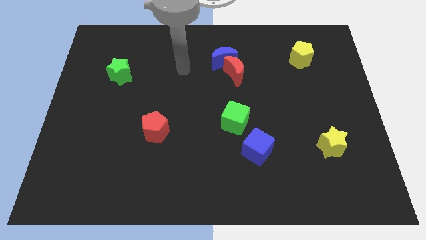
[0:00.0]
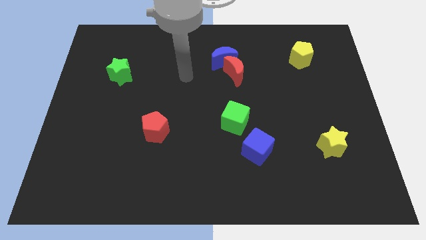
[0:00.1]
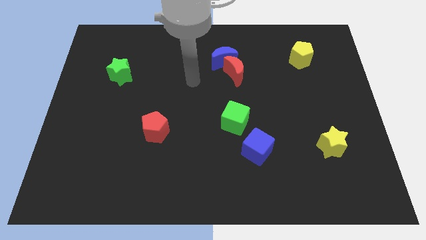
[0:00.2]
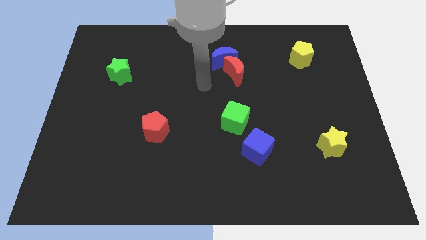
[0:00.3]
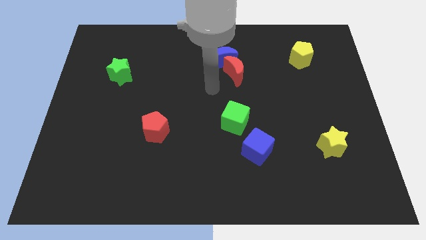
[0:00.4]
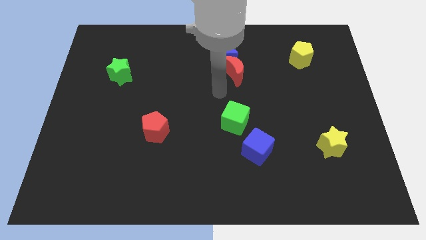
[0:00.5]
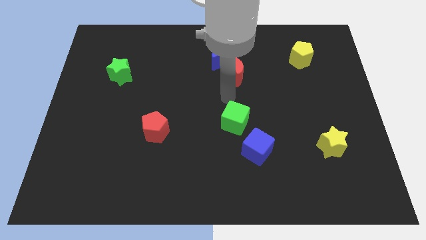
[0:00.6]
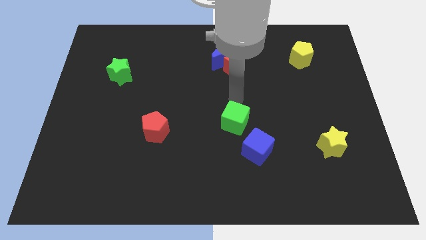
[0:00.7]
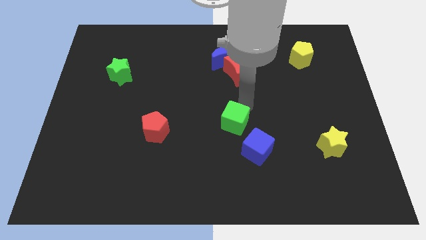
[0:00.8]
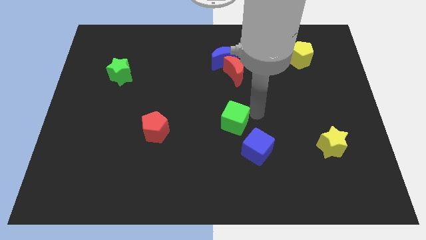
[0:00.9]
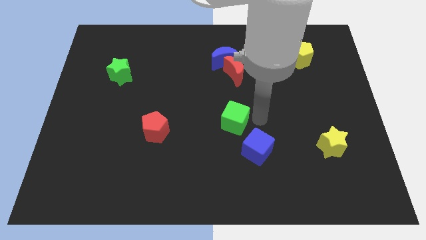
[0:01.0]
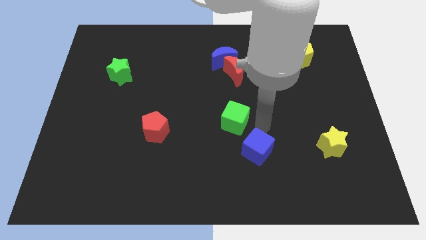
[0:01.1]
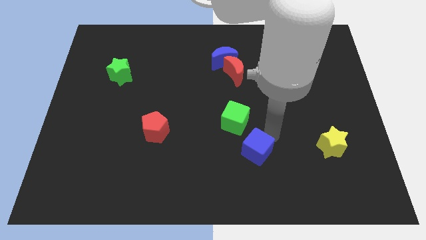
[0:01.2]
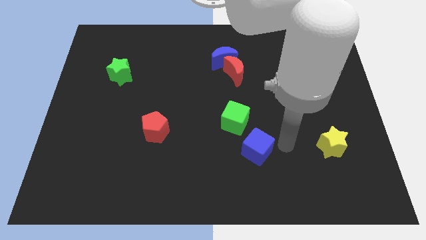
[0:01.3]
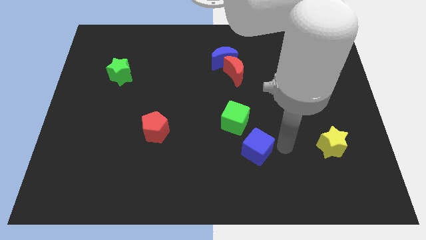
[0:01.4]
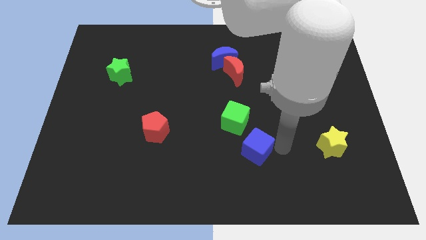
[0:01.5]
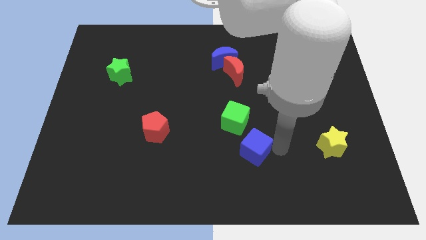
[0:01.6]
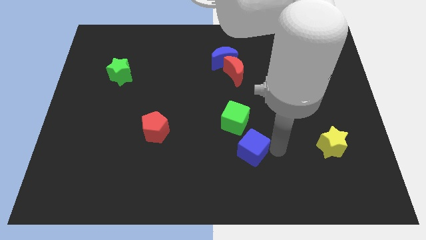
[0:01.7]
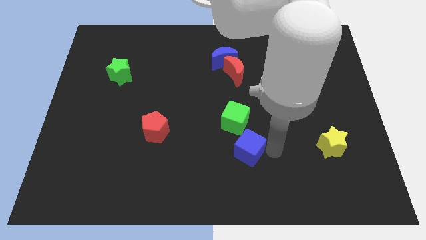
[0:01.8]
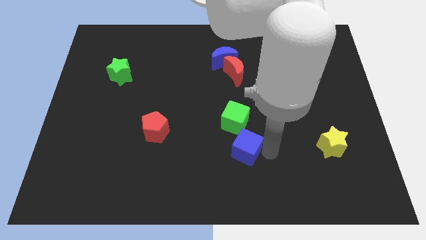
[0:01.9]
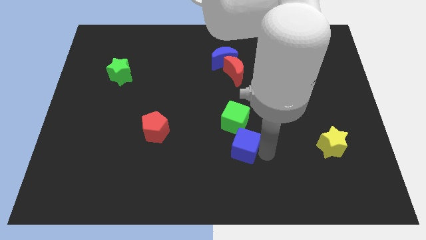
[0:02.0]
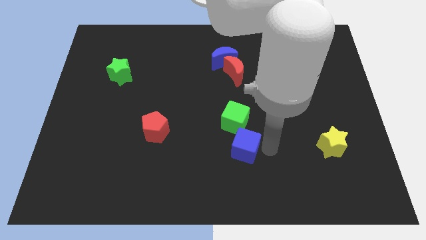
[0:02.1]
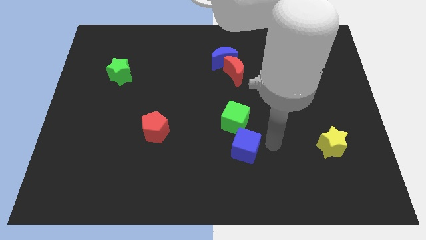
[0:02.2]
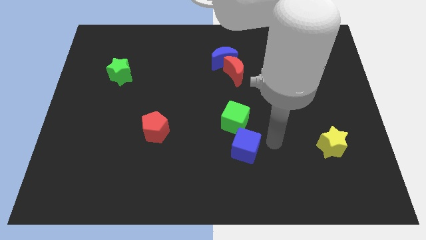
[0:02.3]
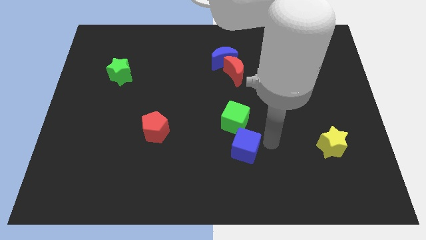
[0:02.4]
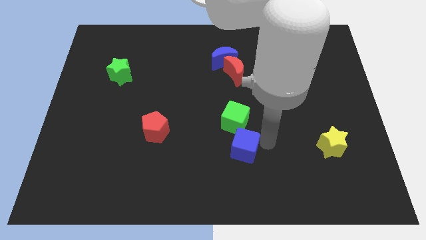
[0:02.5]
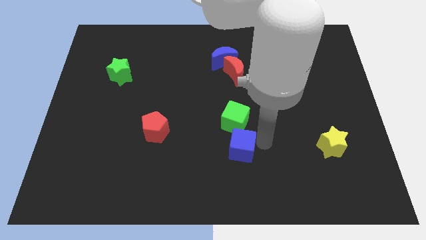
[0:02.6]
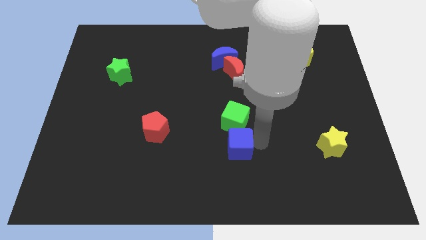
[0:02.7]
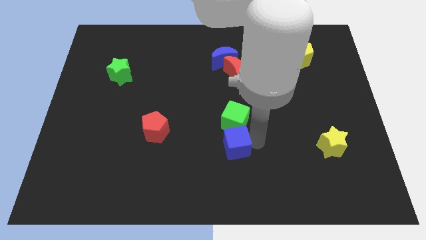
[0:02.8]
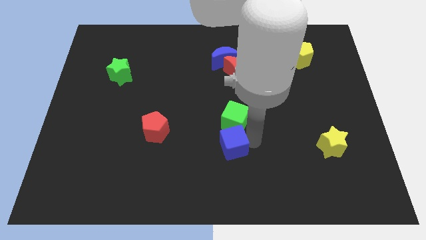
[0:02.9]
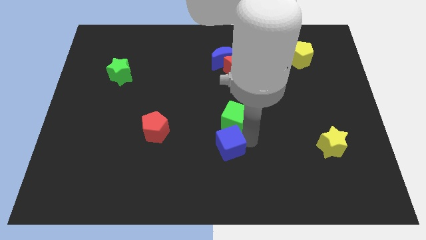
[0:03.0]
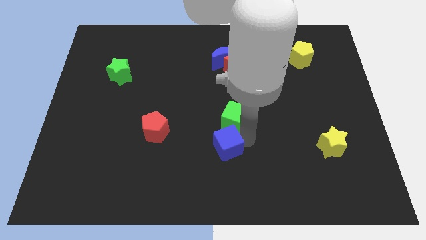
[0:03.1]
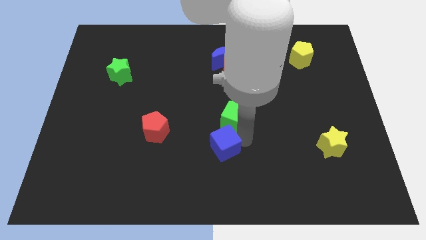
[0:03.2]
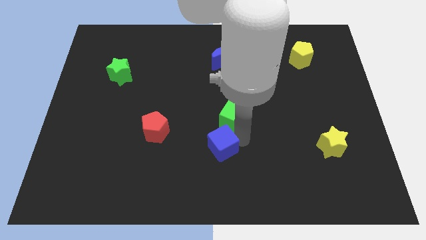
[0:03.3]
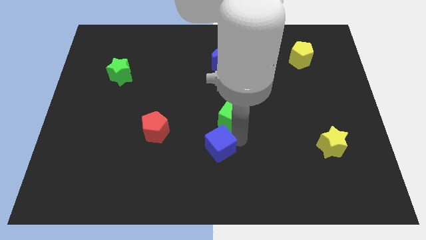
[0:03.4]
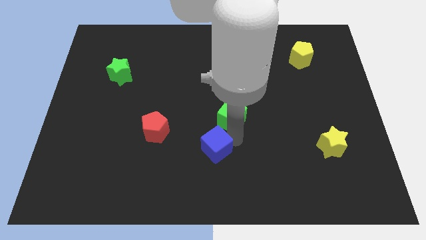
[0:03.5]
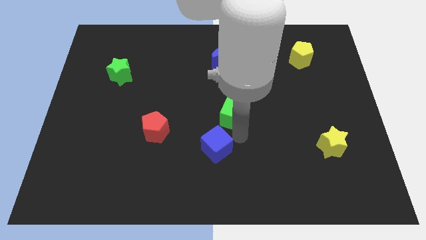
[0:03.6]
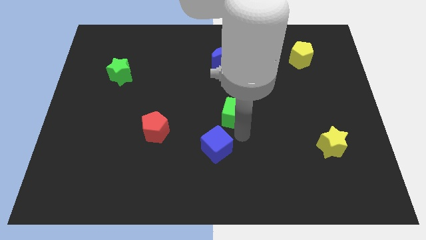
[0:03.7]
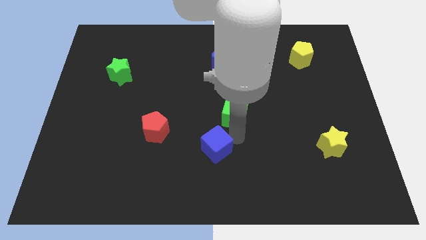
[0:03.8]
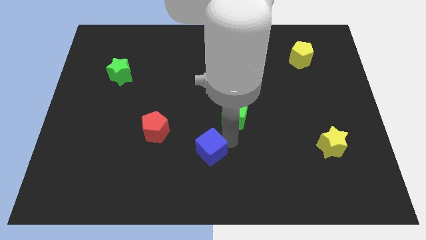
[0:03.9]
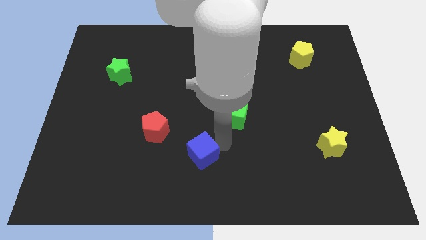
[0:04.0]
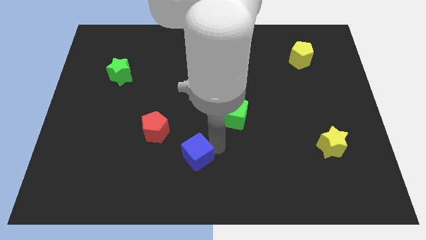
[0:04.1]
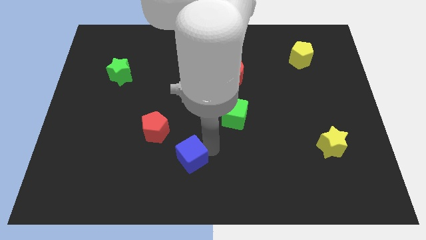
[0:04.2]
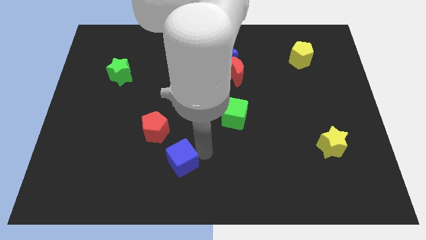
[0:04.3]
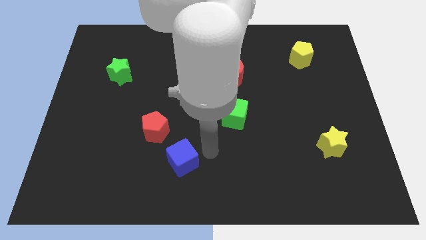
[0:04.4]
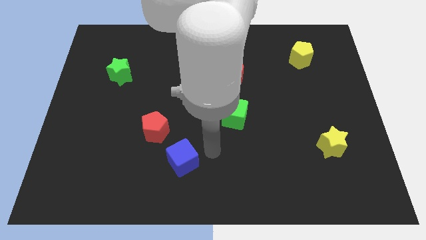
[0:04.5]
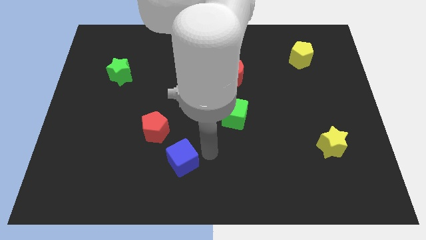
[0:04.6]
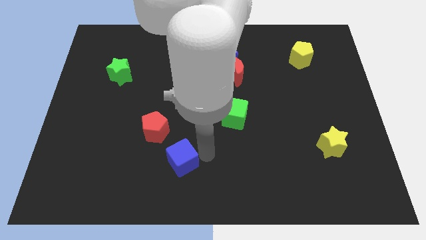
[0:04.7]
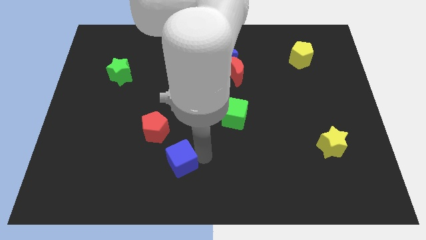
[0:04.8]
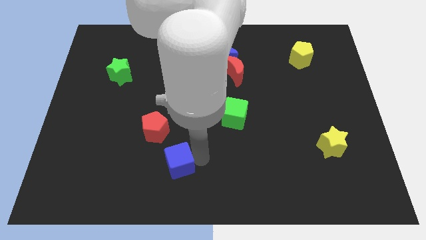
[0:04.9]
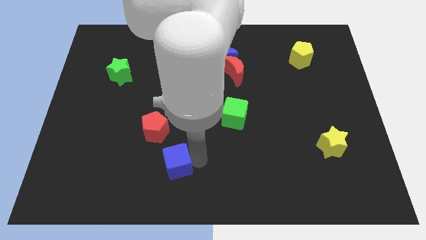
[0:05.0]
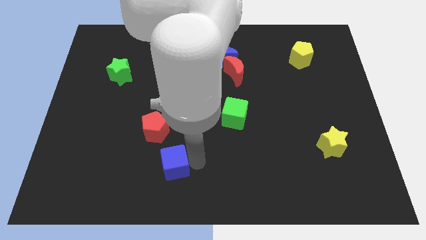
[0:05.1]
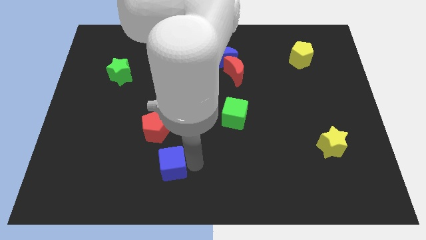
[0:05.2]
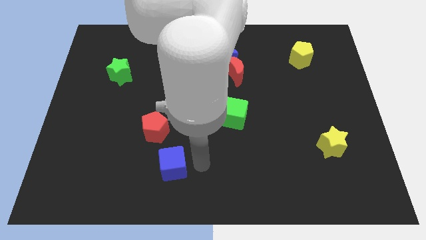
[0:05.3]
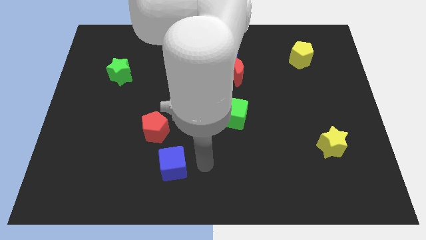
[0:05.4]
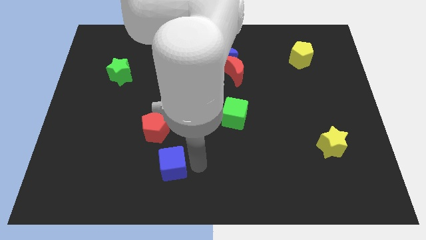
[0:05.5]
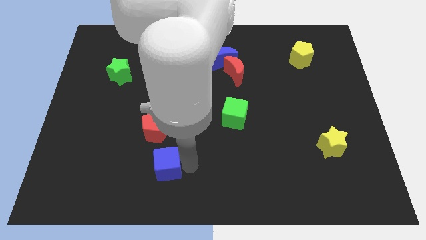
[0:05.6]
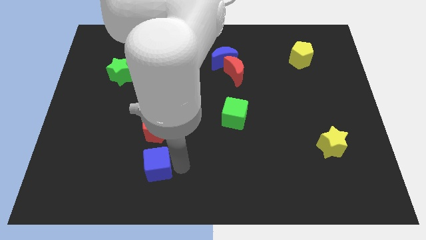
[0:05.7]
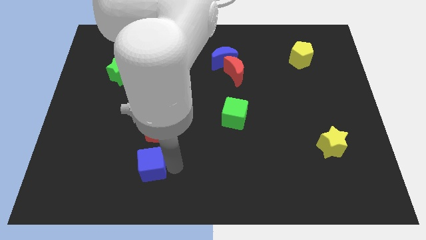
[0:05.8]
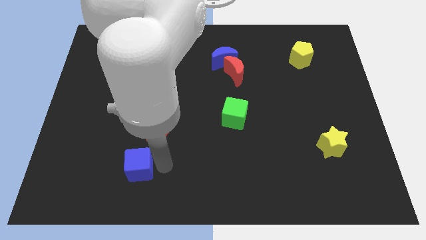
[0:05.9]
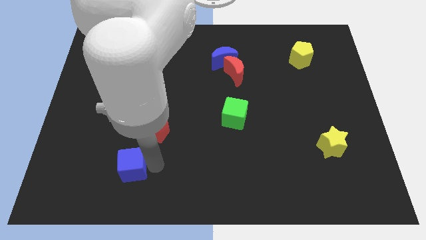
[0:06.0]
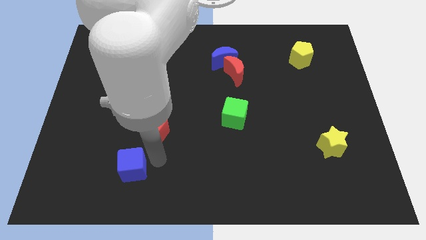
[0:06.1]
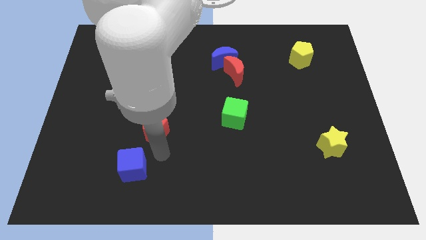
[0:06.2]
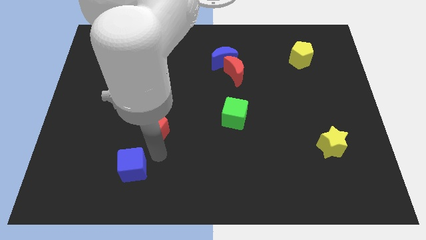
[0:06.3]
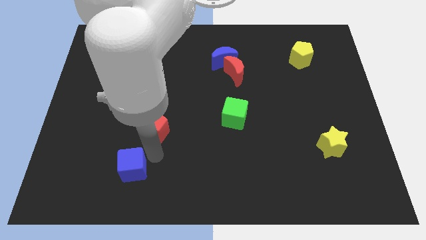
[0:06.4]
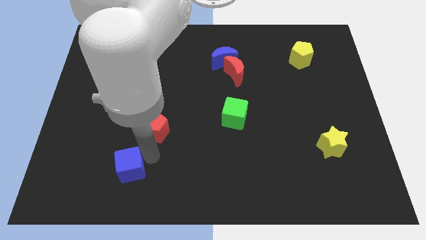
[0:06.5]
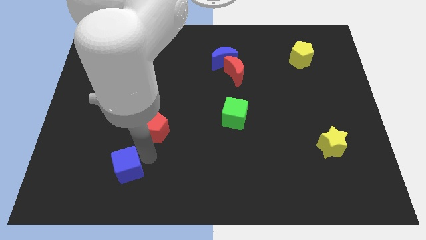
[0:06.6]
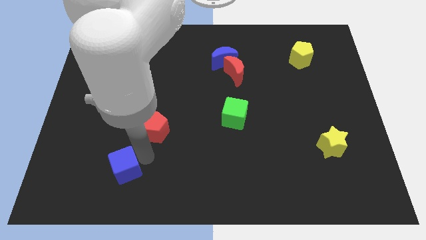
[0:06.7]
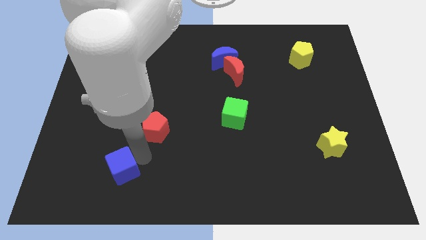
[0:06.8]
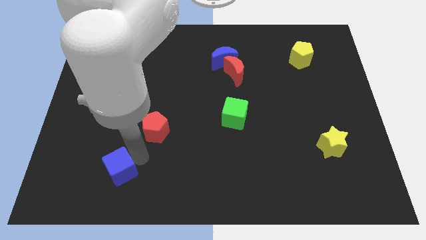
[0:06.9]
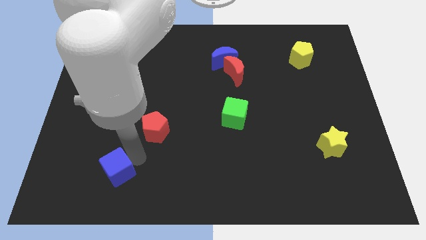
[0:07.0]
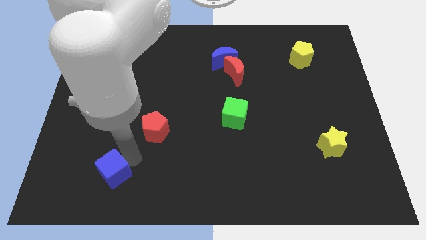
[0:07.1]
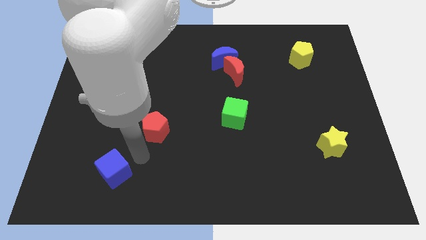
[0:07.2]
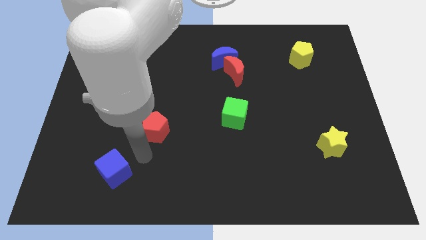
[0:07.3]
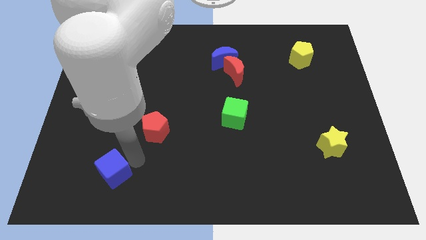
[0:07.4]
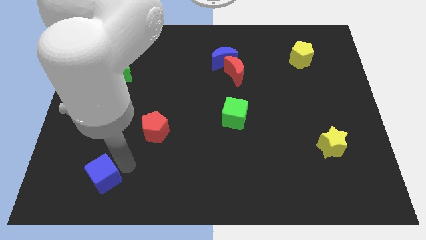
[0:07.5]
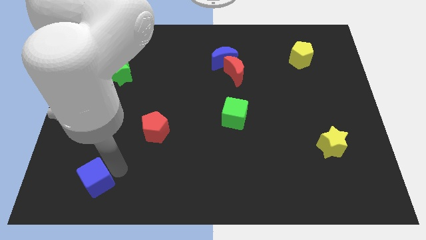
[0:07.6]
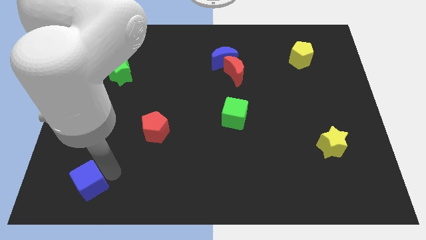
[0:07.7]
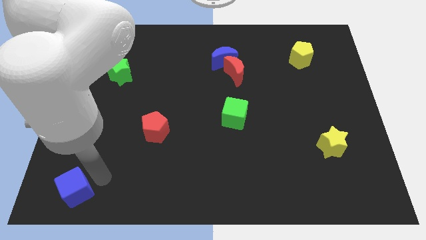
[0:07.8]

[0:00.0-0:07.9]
slide the blue cube to the lower left corner
